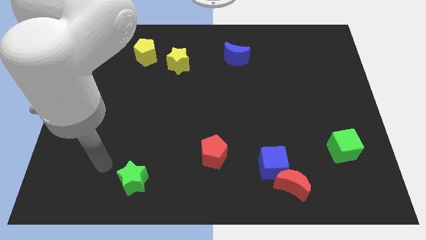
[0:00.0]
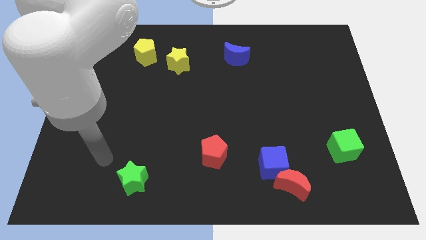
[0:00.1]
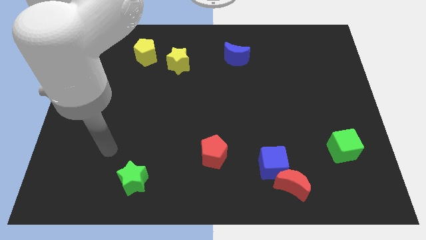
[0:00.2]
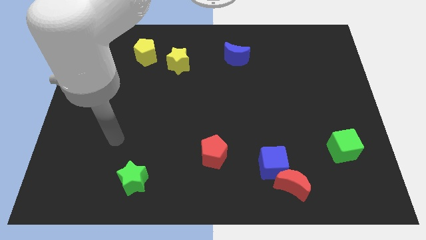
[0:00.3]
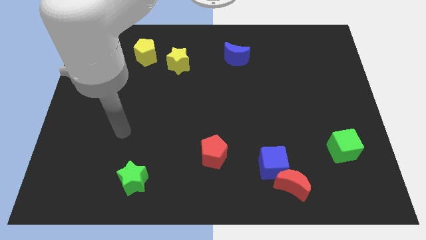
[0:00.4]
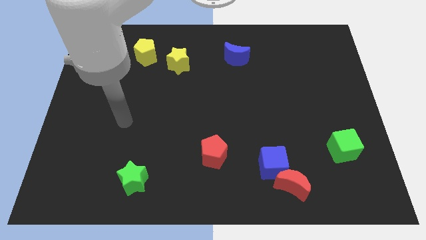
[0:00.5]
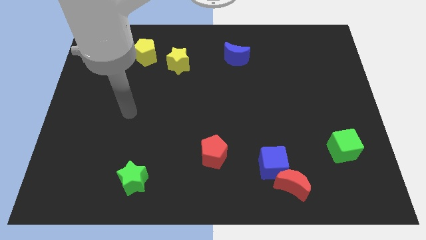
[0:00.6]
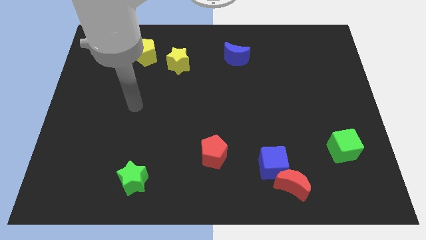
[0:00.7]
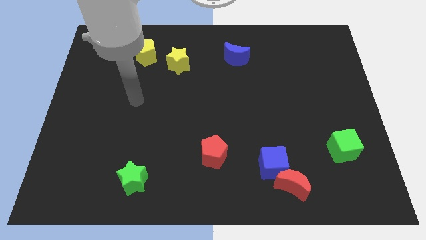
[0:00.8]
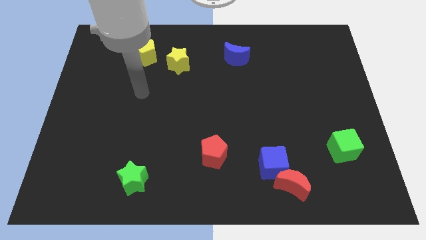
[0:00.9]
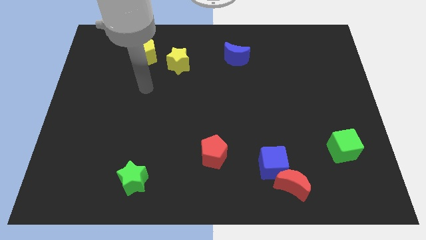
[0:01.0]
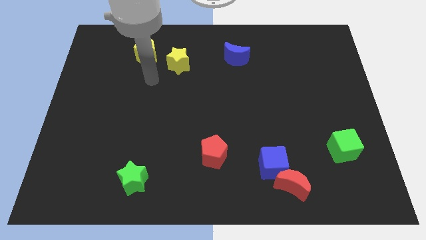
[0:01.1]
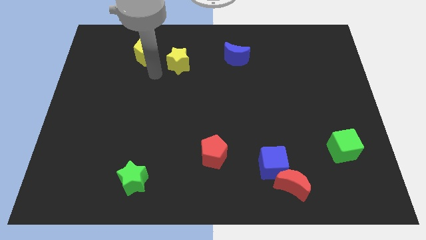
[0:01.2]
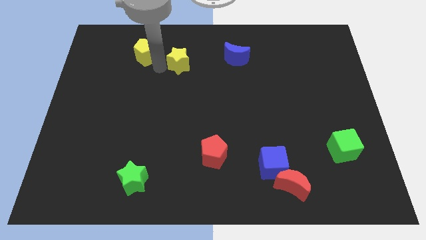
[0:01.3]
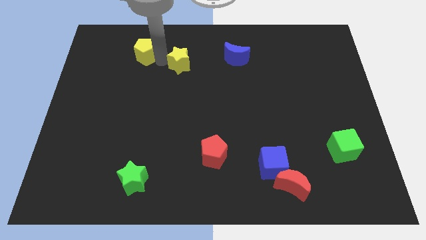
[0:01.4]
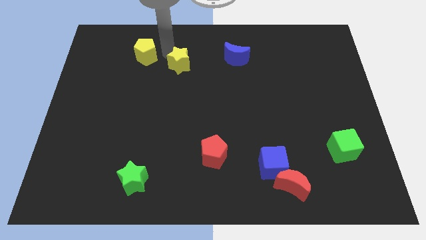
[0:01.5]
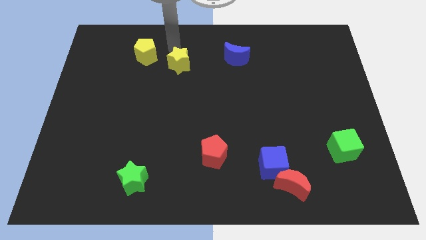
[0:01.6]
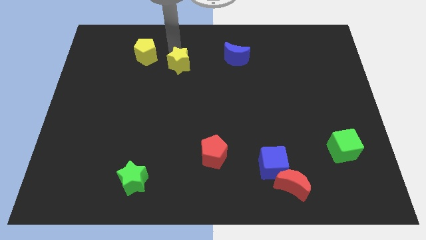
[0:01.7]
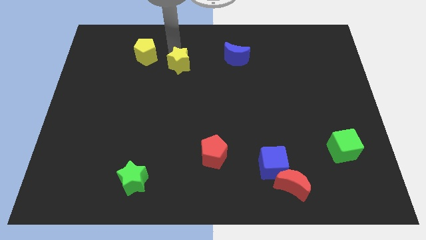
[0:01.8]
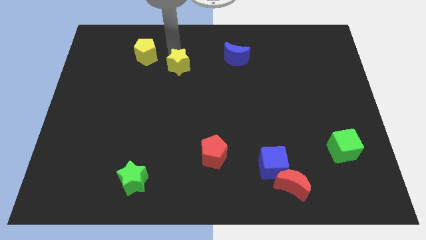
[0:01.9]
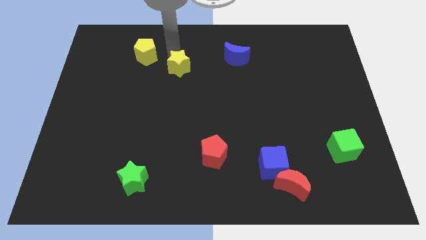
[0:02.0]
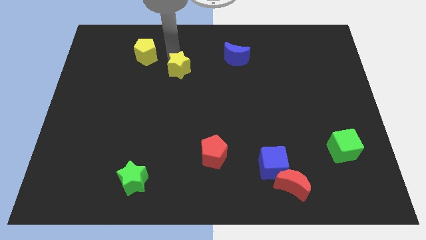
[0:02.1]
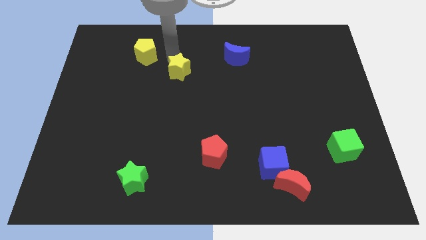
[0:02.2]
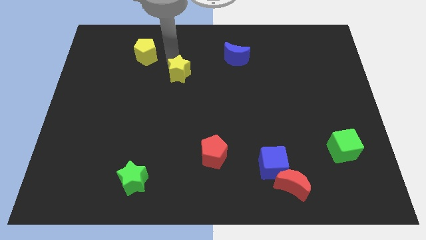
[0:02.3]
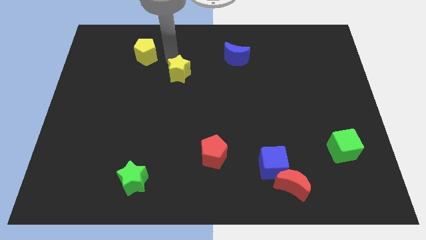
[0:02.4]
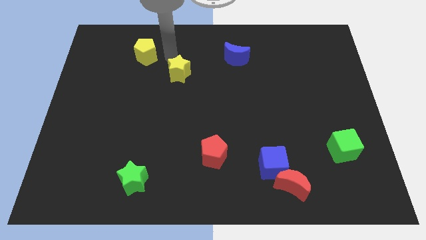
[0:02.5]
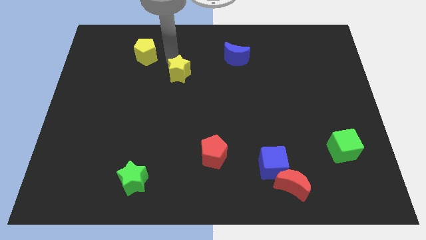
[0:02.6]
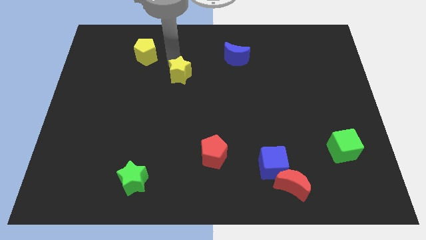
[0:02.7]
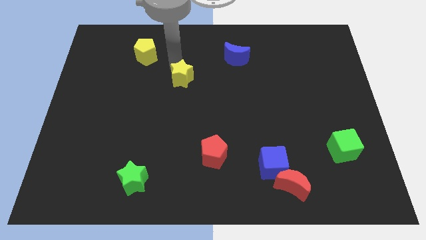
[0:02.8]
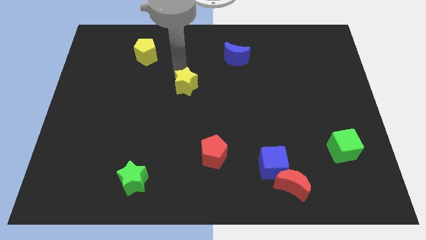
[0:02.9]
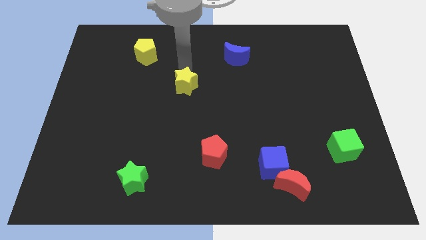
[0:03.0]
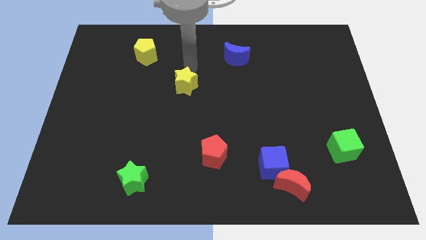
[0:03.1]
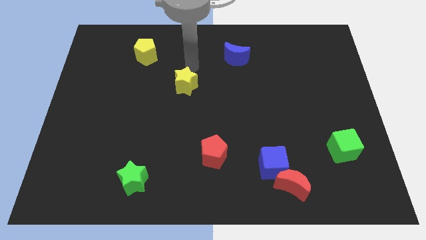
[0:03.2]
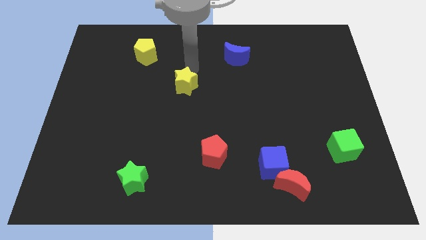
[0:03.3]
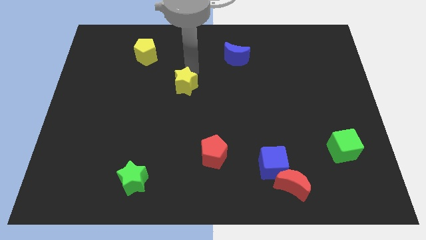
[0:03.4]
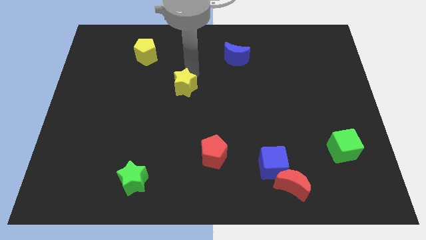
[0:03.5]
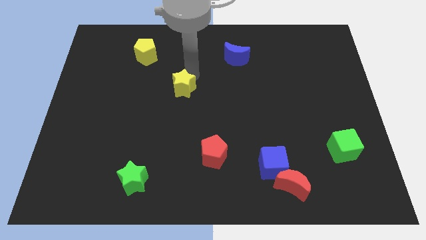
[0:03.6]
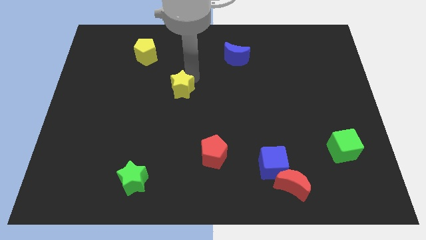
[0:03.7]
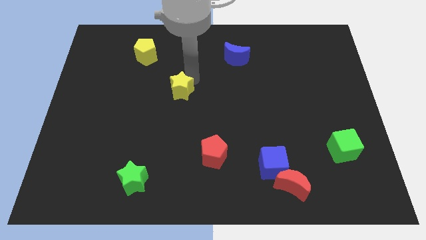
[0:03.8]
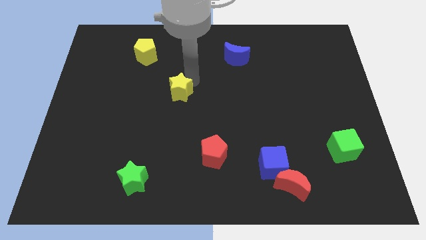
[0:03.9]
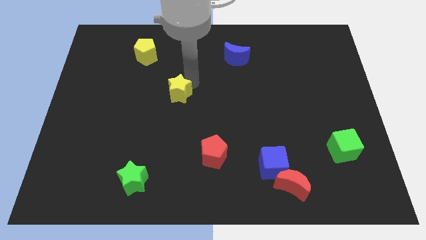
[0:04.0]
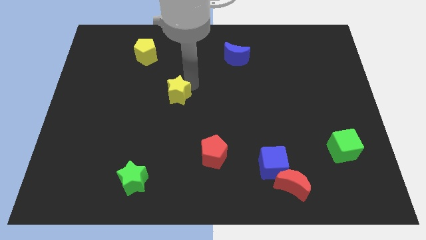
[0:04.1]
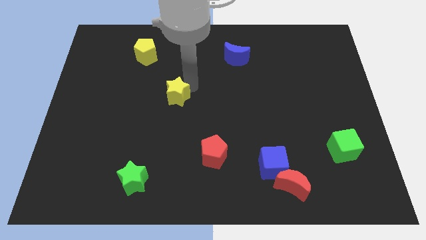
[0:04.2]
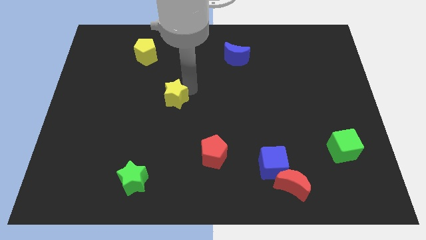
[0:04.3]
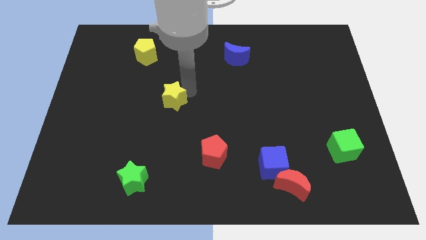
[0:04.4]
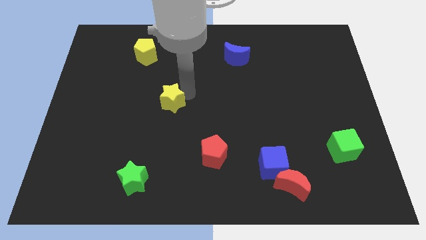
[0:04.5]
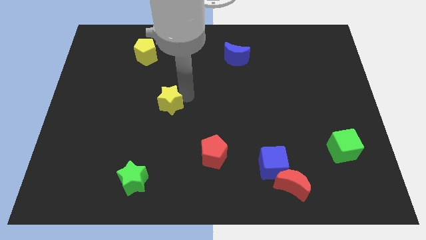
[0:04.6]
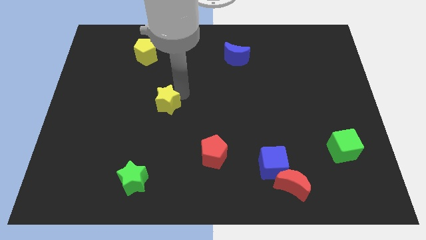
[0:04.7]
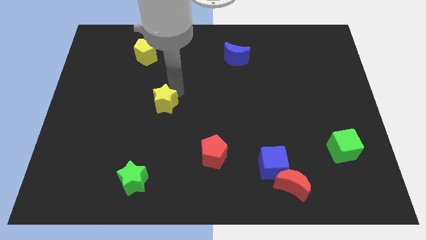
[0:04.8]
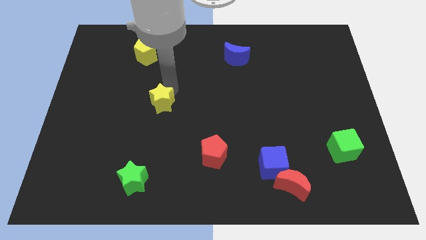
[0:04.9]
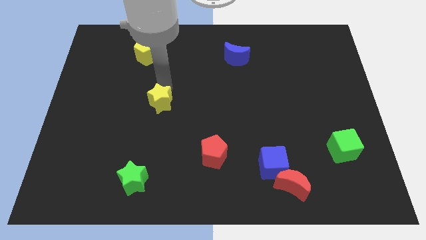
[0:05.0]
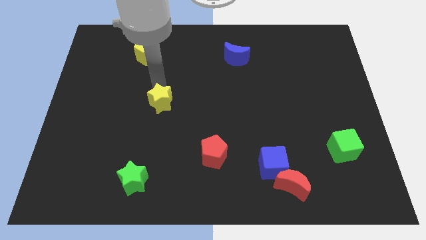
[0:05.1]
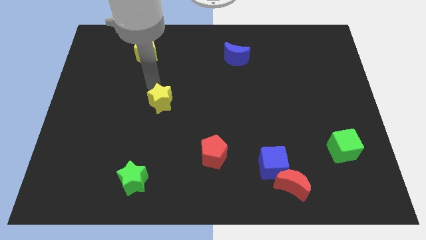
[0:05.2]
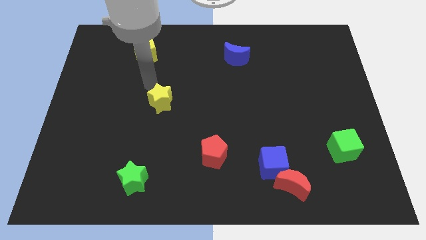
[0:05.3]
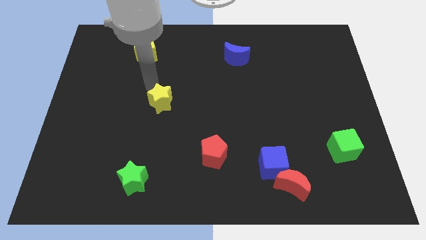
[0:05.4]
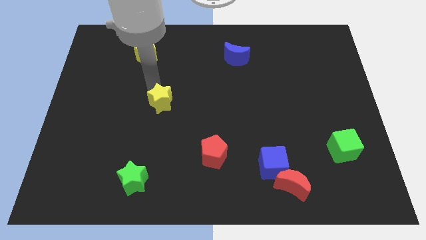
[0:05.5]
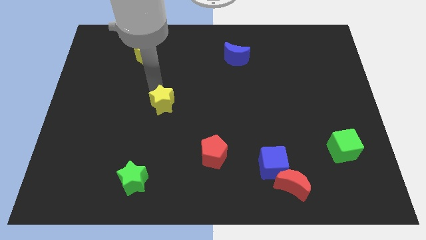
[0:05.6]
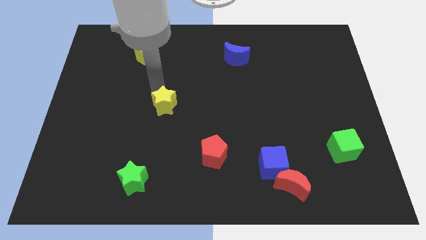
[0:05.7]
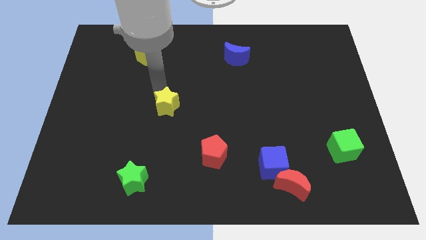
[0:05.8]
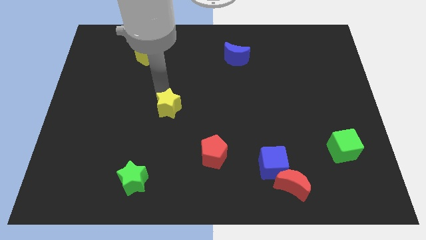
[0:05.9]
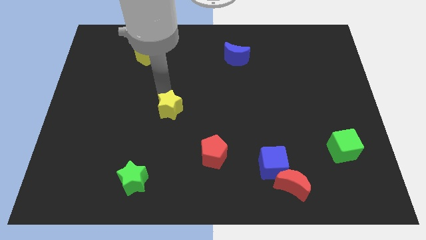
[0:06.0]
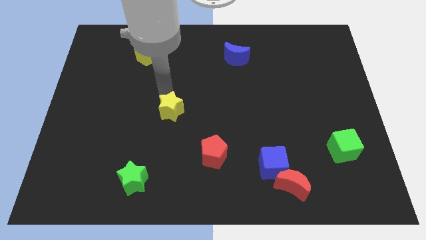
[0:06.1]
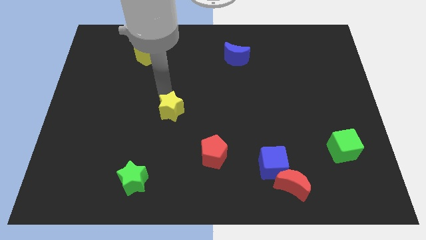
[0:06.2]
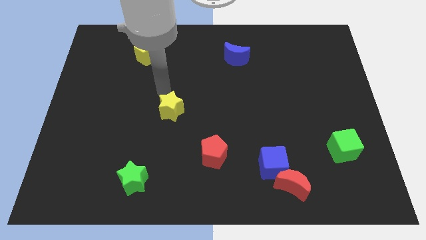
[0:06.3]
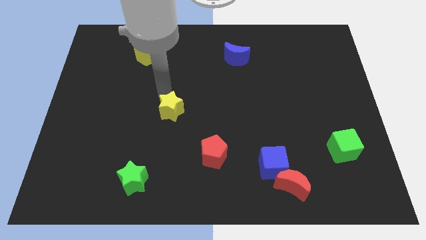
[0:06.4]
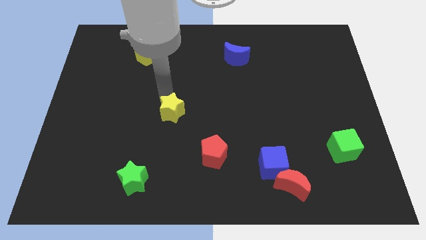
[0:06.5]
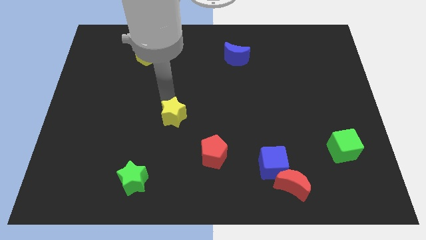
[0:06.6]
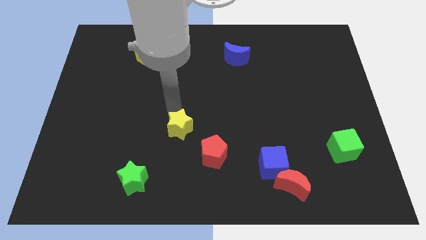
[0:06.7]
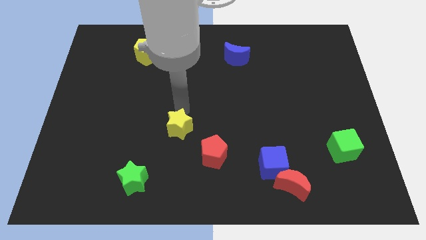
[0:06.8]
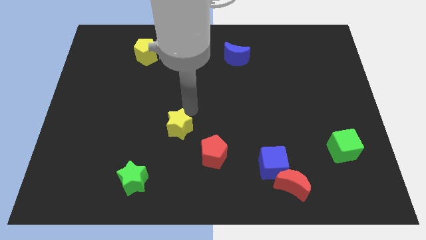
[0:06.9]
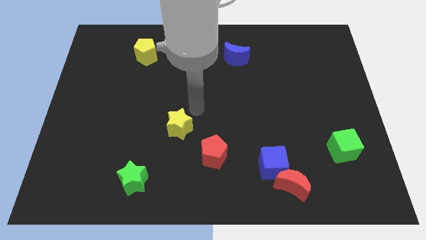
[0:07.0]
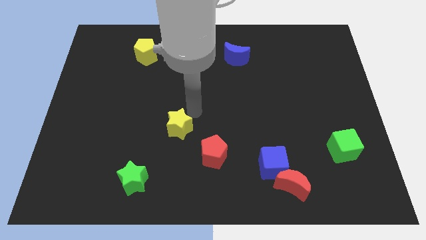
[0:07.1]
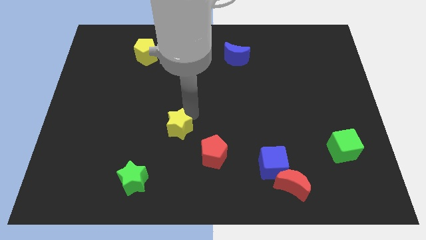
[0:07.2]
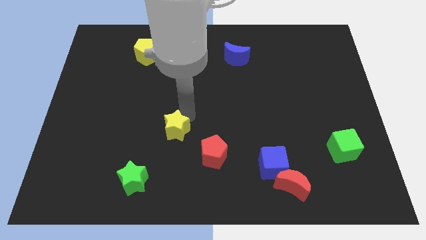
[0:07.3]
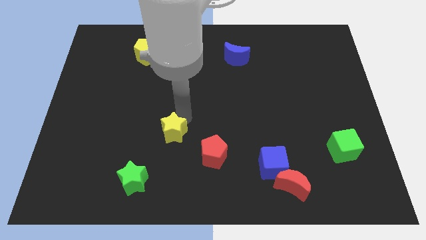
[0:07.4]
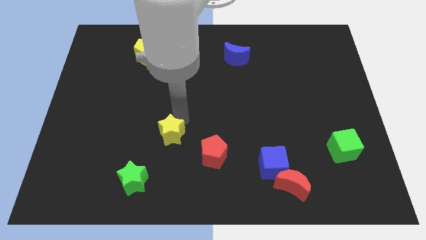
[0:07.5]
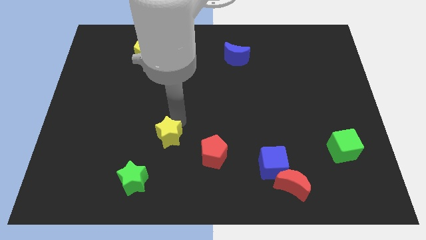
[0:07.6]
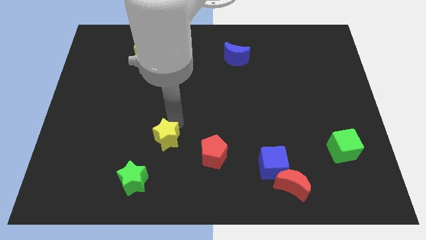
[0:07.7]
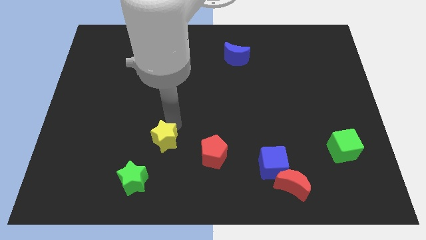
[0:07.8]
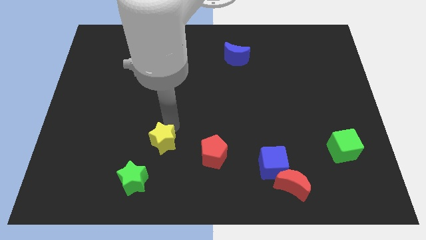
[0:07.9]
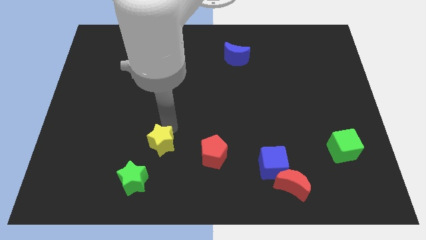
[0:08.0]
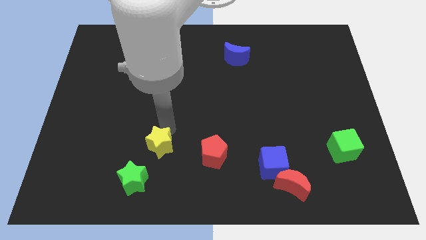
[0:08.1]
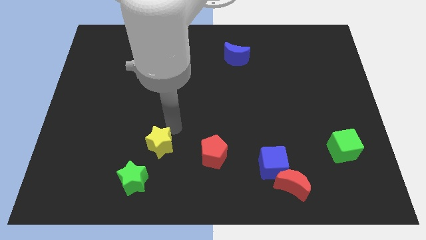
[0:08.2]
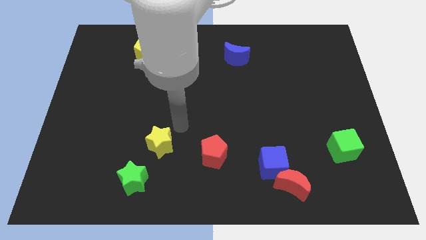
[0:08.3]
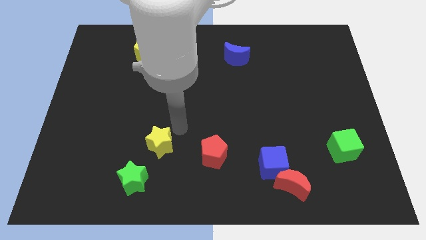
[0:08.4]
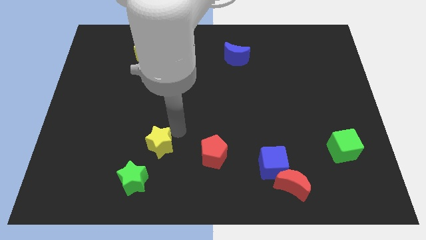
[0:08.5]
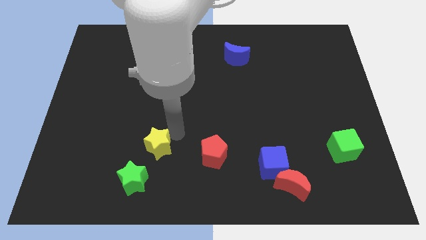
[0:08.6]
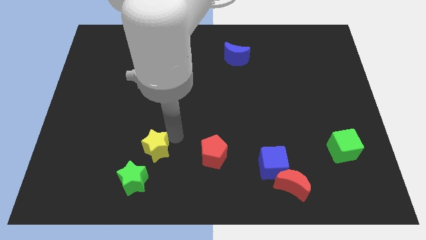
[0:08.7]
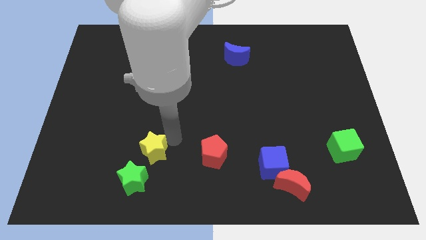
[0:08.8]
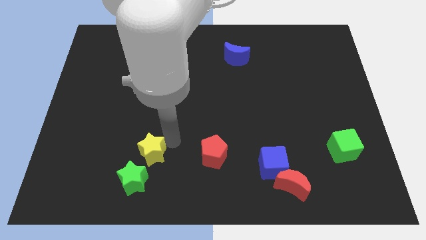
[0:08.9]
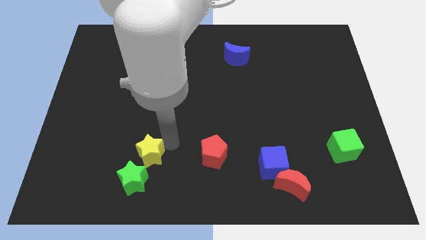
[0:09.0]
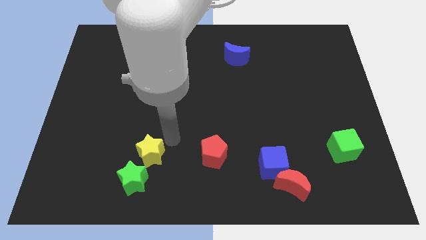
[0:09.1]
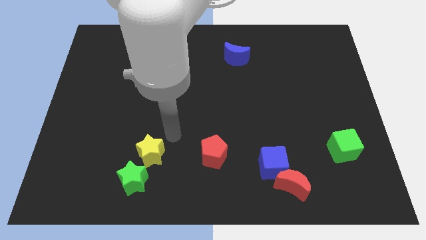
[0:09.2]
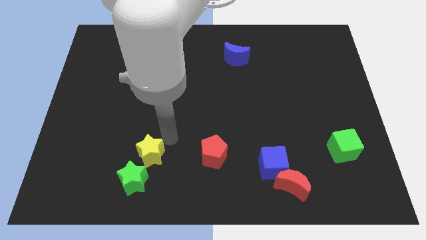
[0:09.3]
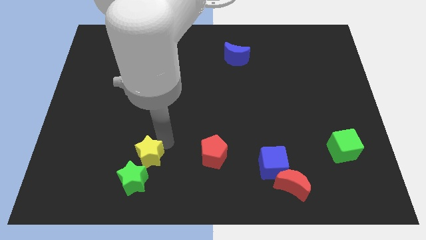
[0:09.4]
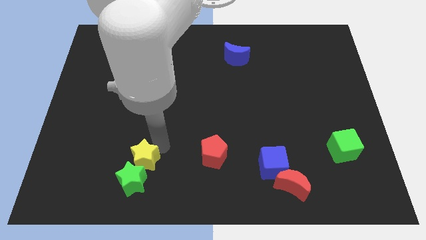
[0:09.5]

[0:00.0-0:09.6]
put the yellow star towards the green star
